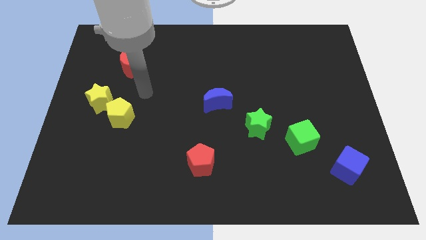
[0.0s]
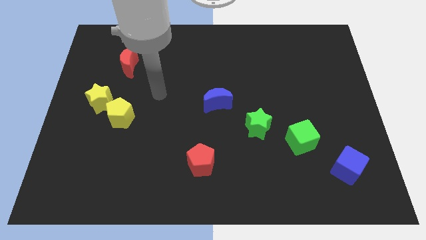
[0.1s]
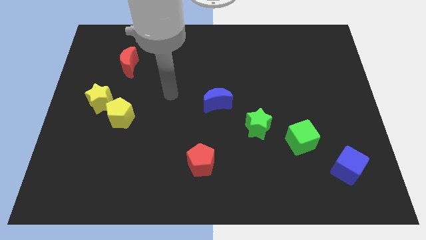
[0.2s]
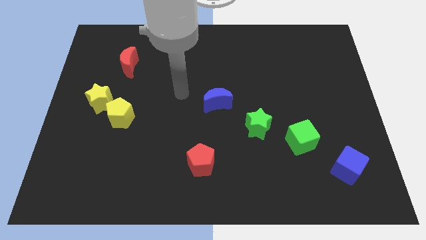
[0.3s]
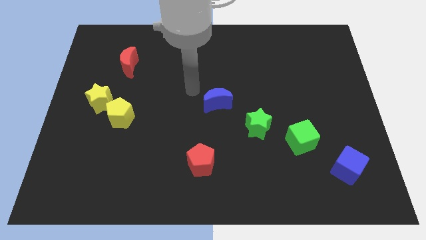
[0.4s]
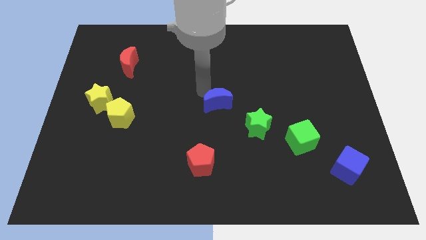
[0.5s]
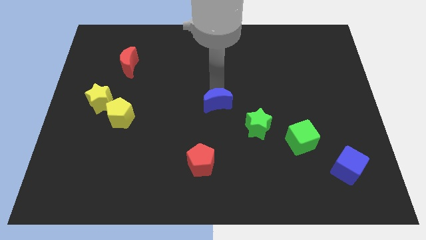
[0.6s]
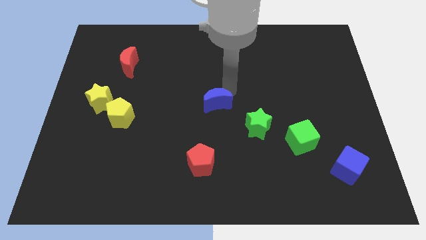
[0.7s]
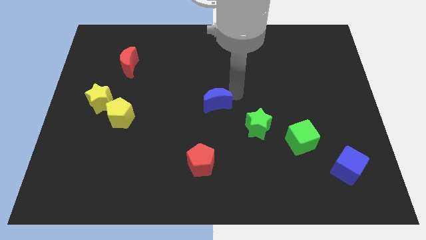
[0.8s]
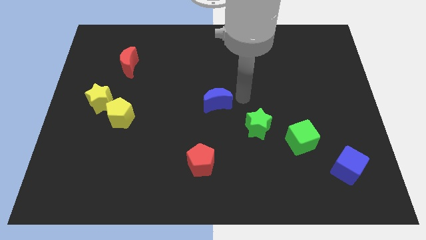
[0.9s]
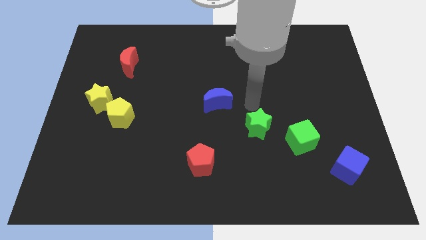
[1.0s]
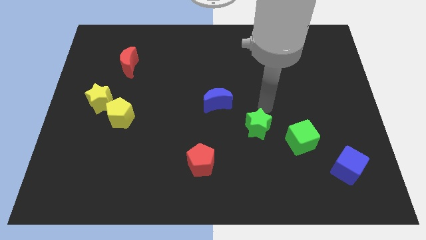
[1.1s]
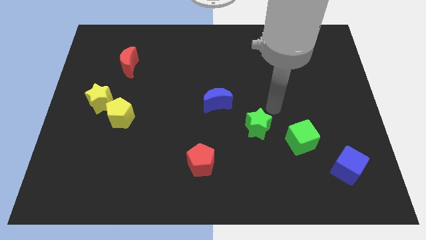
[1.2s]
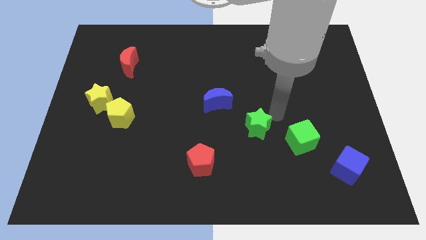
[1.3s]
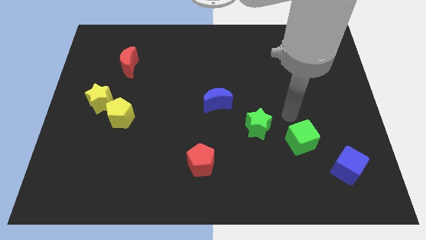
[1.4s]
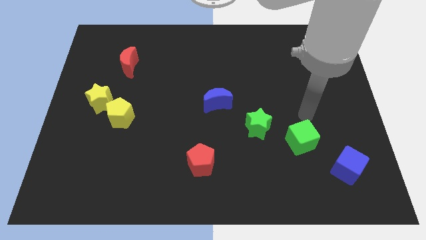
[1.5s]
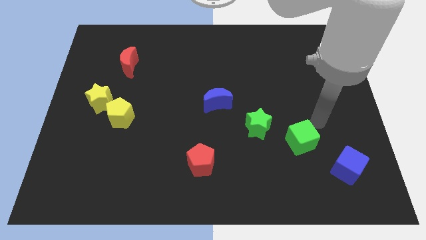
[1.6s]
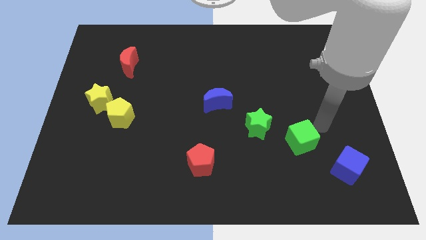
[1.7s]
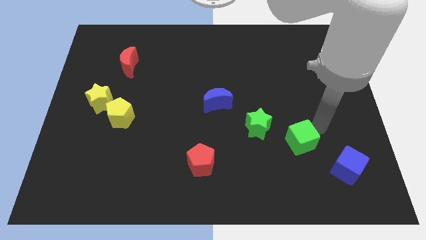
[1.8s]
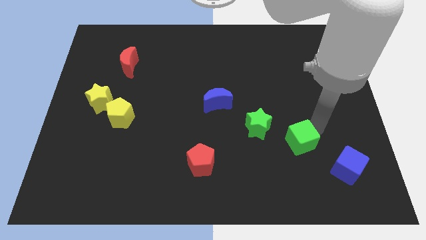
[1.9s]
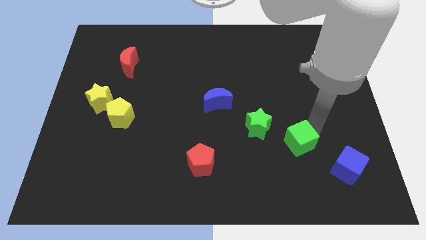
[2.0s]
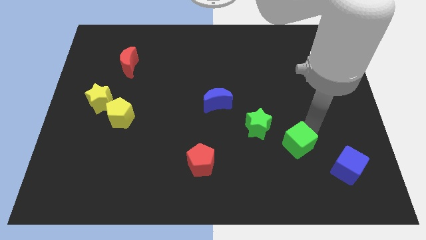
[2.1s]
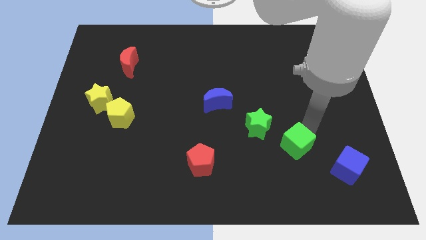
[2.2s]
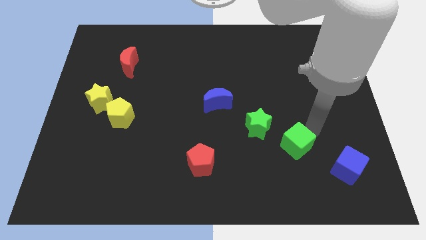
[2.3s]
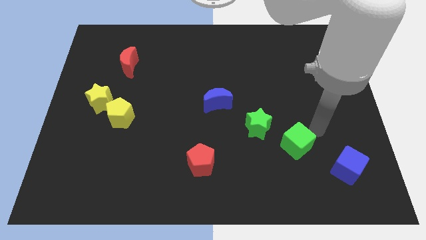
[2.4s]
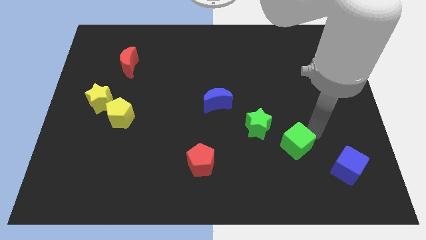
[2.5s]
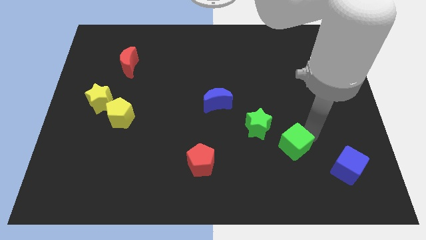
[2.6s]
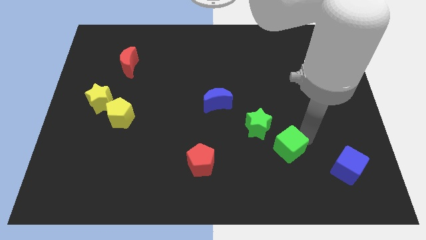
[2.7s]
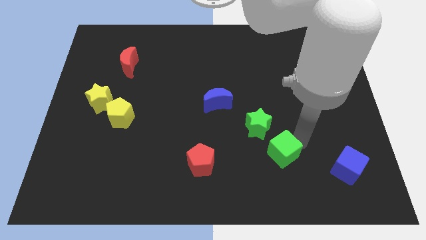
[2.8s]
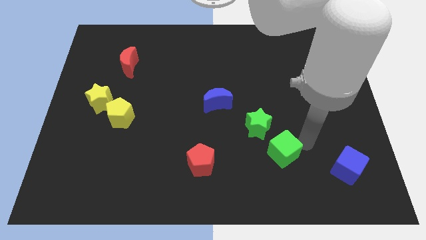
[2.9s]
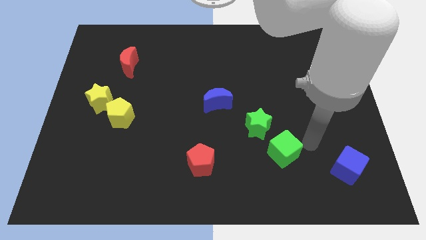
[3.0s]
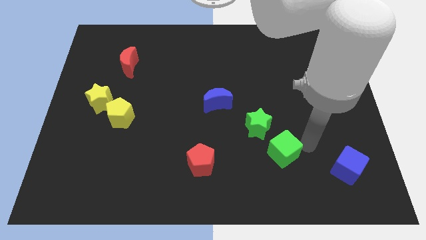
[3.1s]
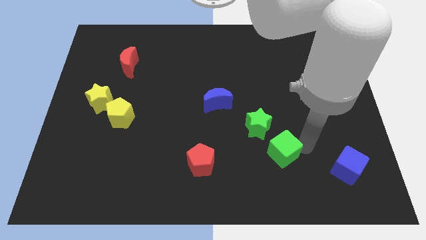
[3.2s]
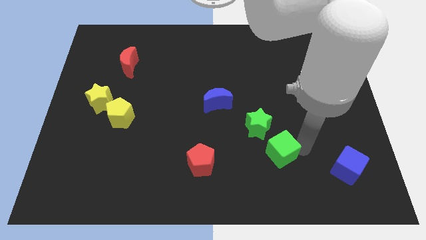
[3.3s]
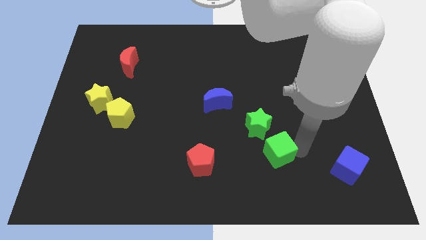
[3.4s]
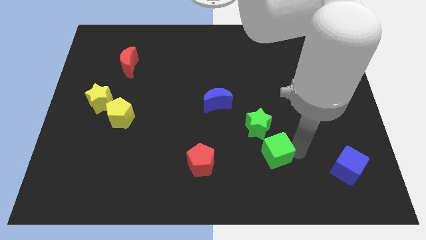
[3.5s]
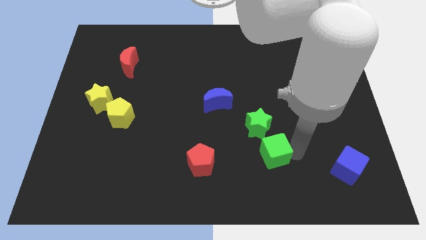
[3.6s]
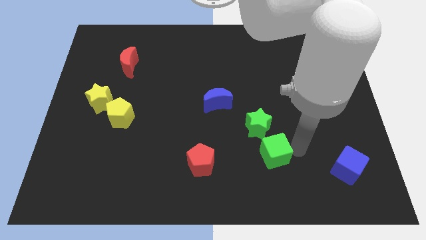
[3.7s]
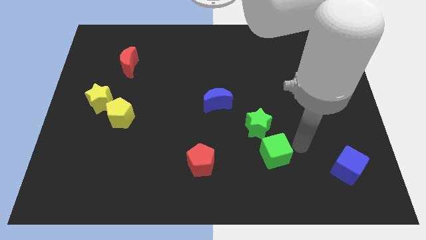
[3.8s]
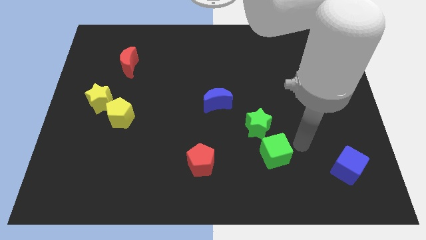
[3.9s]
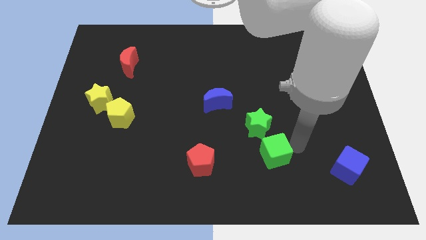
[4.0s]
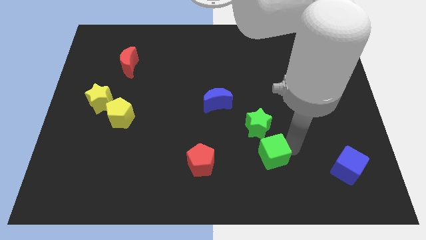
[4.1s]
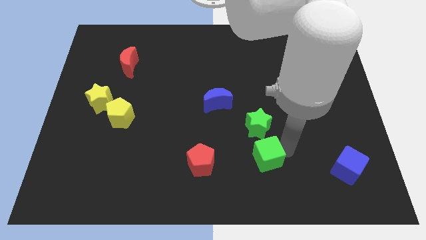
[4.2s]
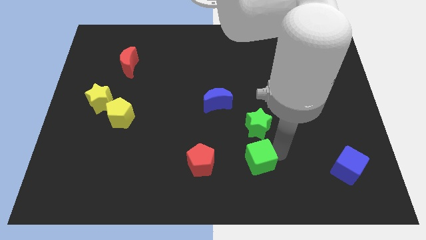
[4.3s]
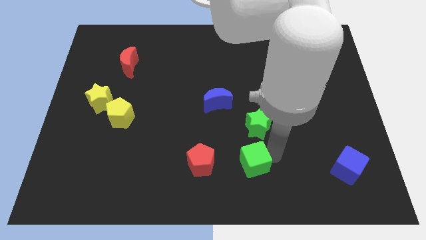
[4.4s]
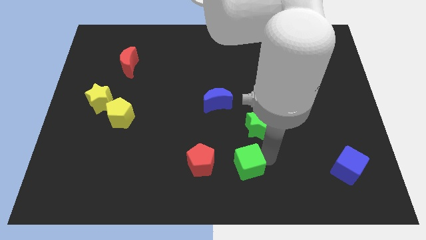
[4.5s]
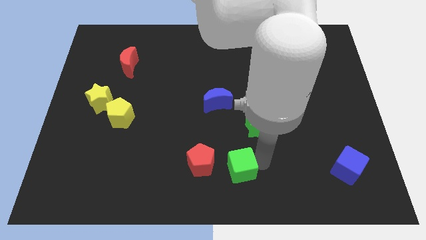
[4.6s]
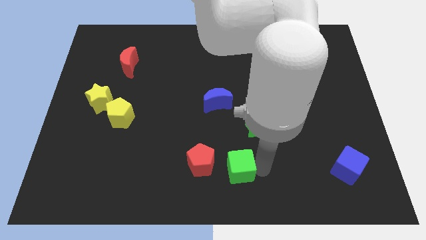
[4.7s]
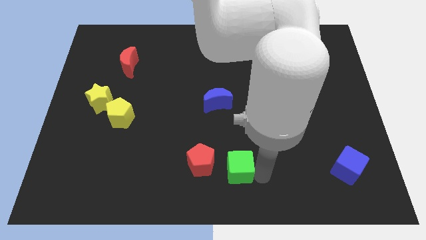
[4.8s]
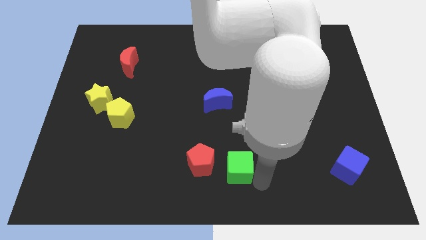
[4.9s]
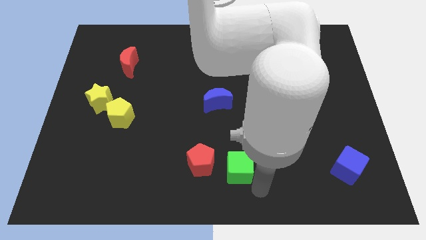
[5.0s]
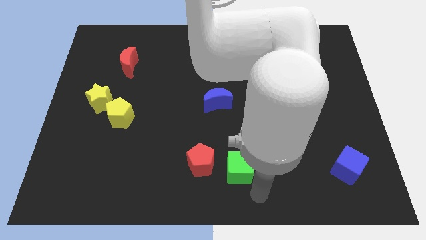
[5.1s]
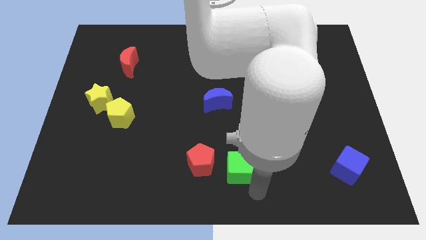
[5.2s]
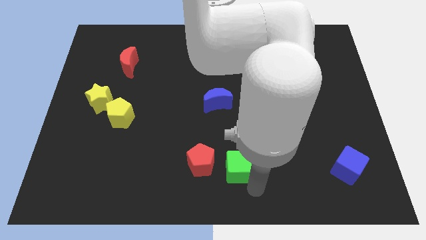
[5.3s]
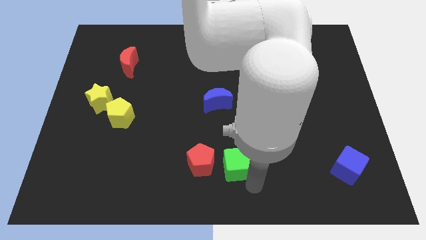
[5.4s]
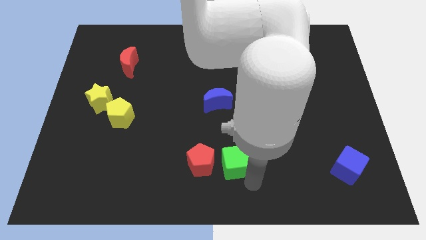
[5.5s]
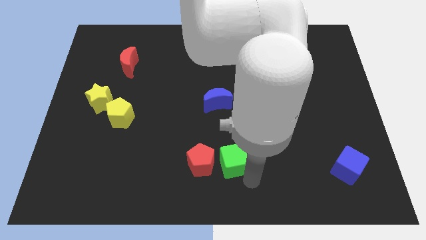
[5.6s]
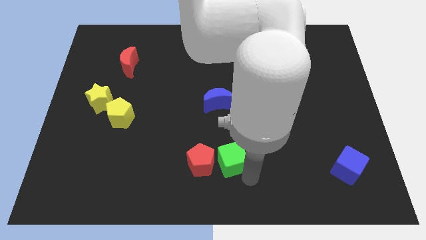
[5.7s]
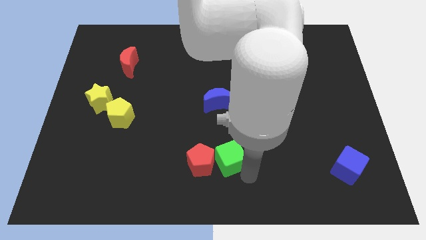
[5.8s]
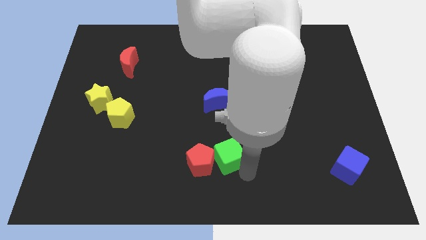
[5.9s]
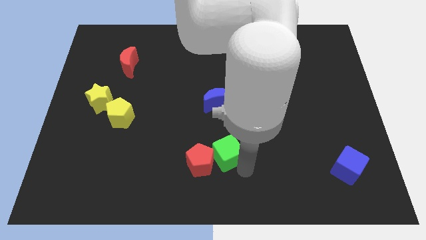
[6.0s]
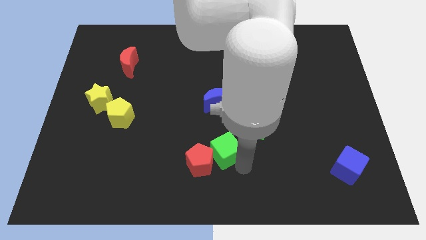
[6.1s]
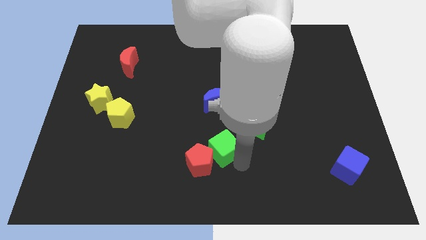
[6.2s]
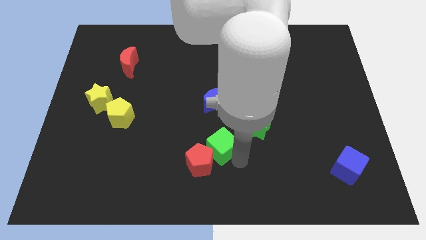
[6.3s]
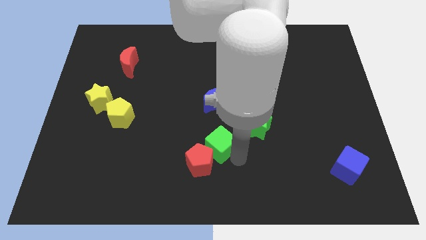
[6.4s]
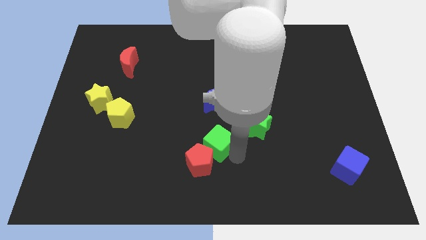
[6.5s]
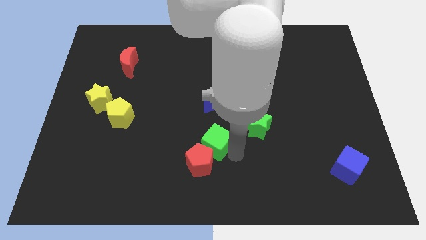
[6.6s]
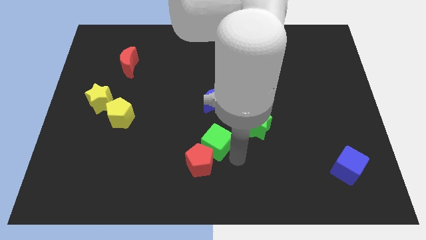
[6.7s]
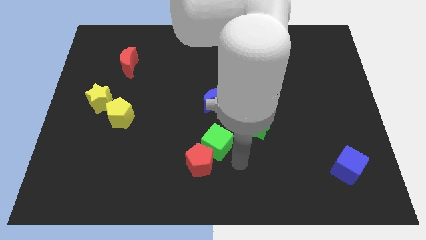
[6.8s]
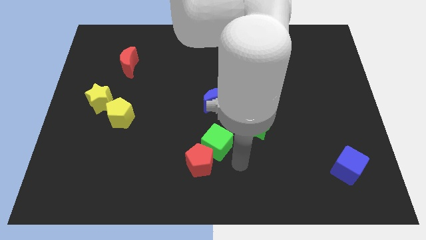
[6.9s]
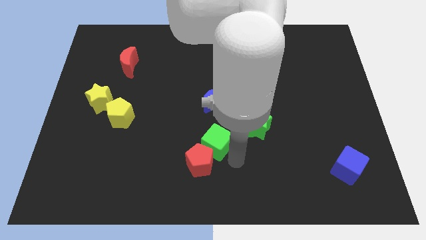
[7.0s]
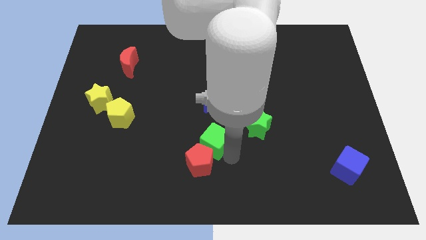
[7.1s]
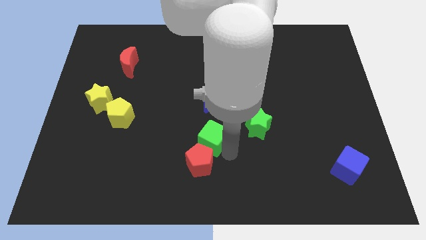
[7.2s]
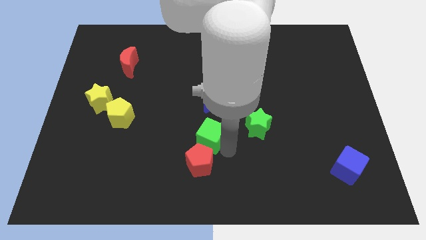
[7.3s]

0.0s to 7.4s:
push the green cube to the left

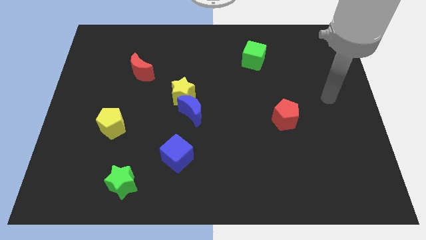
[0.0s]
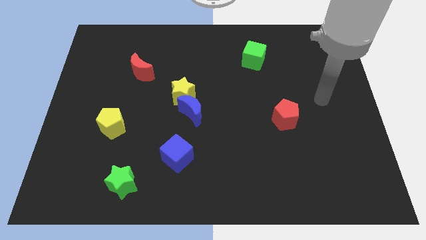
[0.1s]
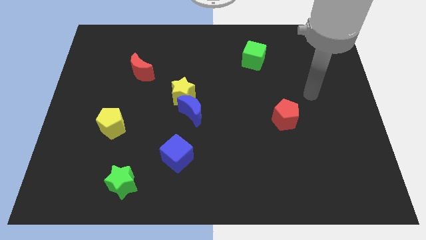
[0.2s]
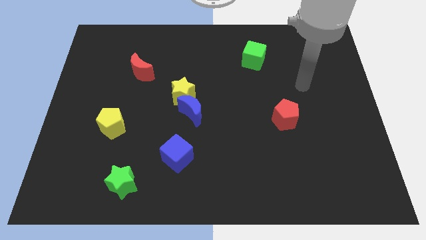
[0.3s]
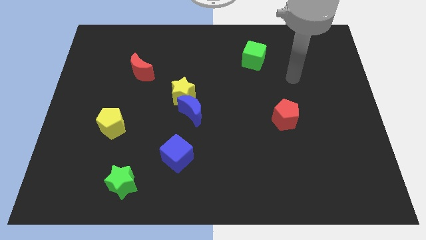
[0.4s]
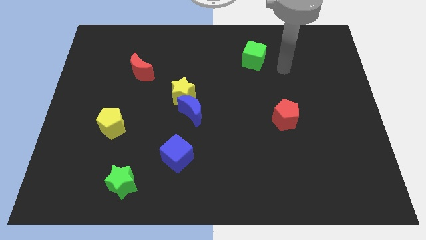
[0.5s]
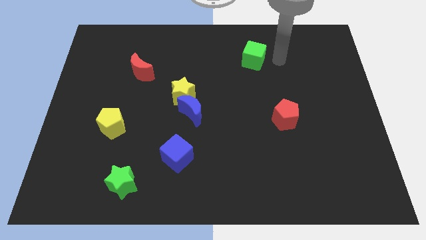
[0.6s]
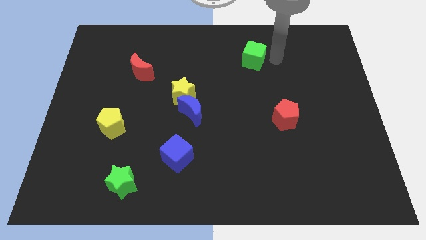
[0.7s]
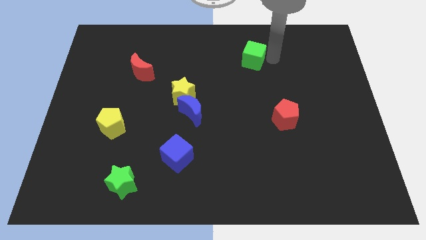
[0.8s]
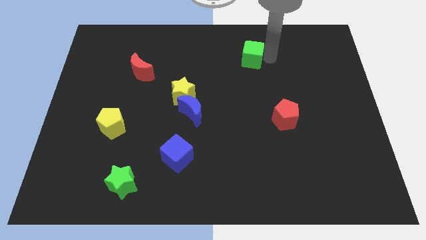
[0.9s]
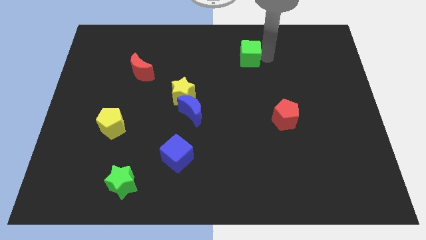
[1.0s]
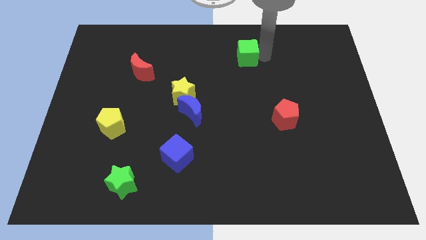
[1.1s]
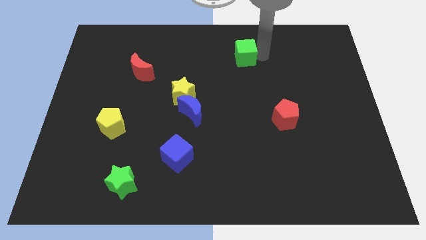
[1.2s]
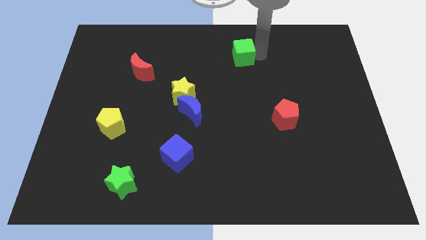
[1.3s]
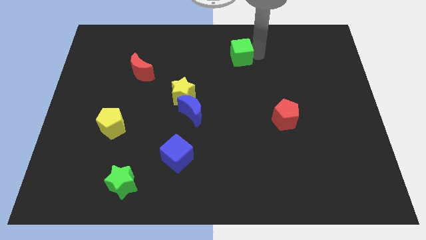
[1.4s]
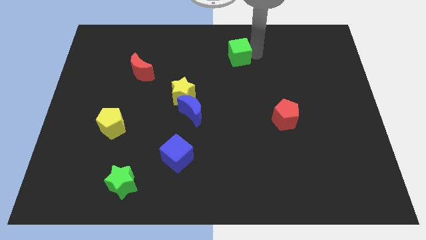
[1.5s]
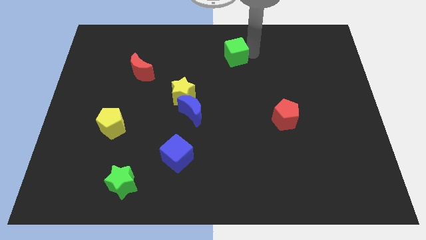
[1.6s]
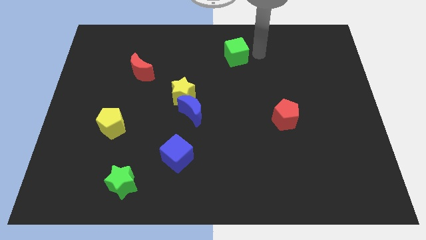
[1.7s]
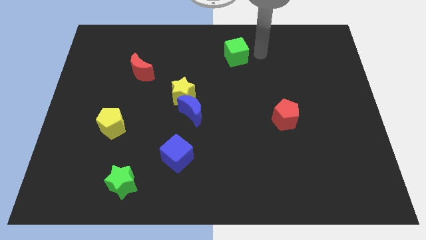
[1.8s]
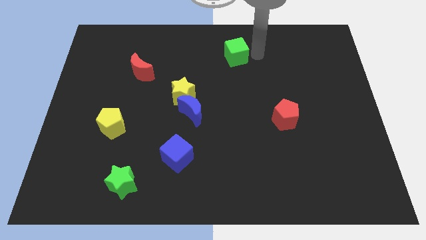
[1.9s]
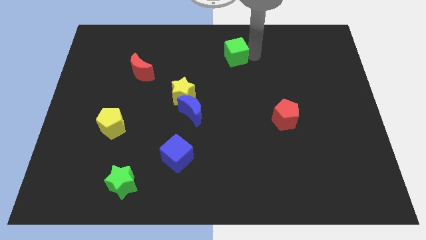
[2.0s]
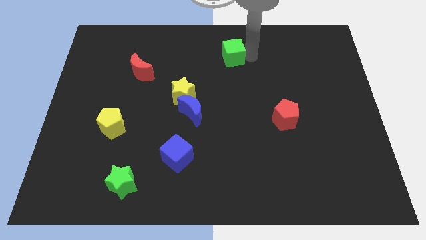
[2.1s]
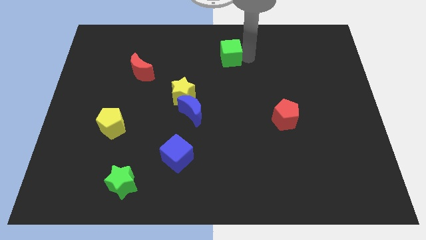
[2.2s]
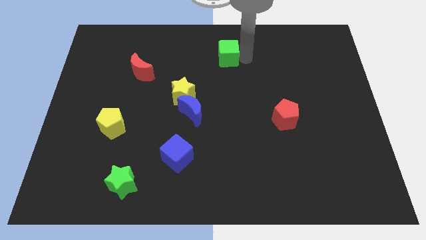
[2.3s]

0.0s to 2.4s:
slightly move the green cube to the left
